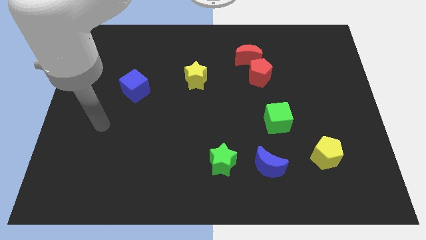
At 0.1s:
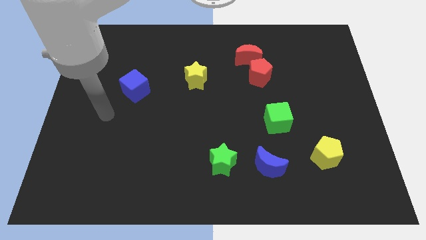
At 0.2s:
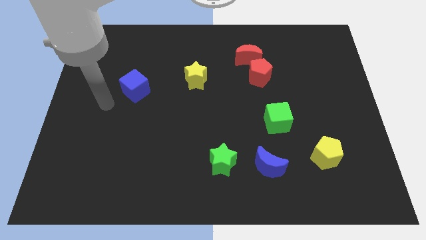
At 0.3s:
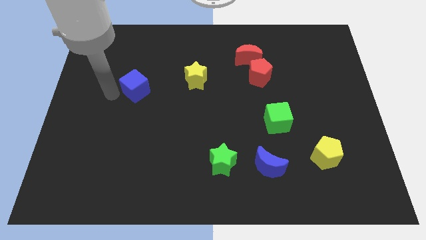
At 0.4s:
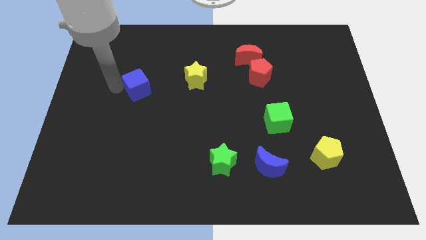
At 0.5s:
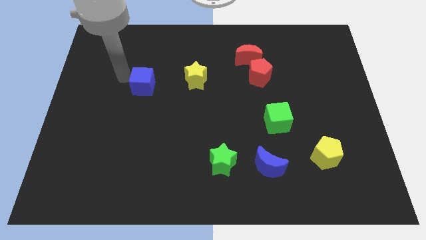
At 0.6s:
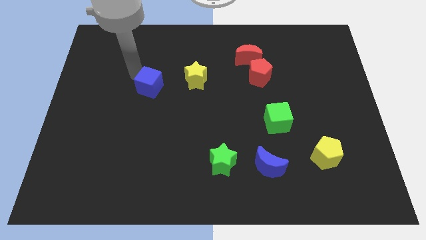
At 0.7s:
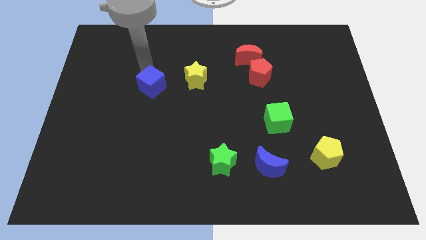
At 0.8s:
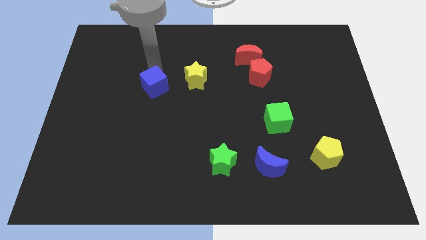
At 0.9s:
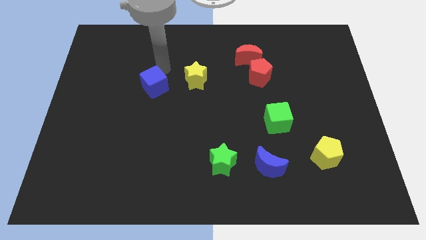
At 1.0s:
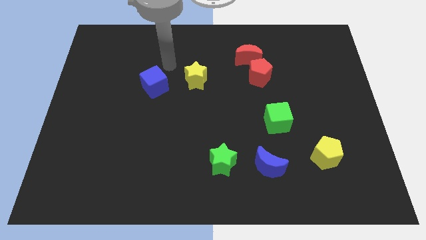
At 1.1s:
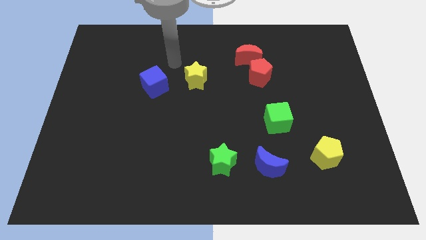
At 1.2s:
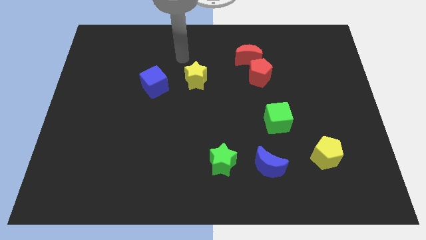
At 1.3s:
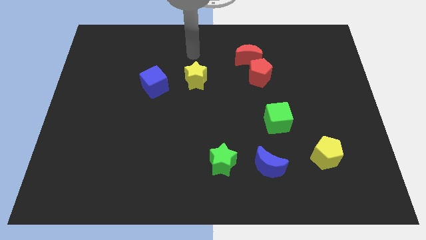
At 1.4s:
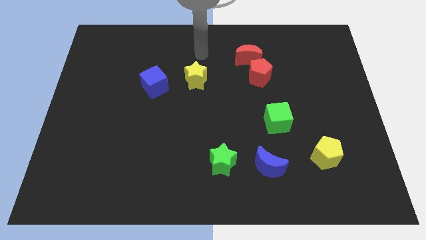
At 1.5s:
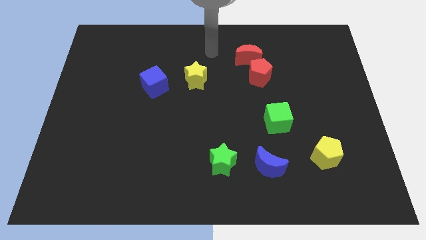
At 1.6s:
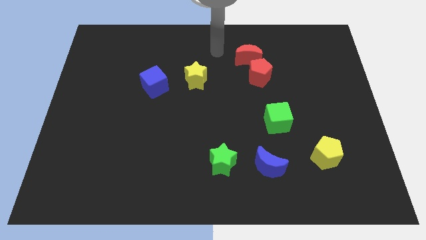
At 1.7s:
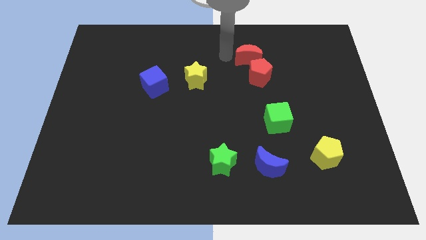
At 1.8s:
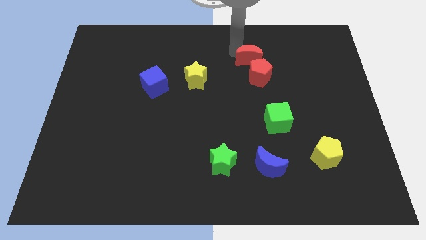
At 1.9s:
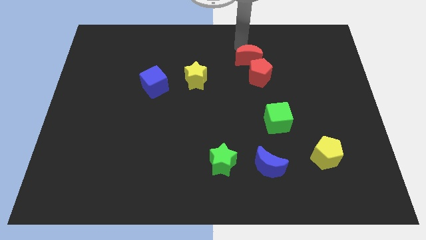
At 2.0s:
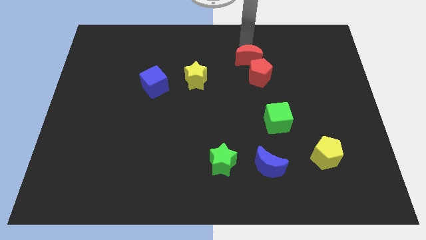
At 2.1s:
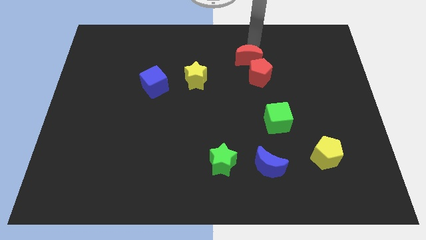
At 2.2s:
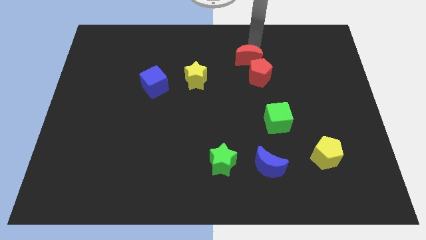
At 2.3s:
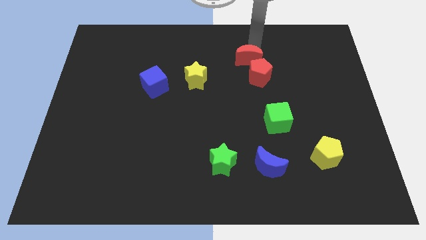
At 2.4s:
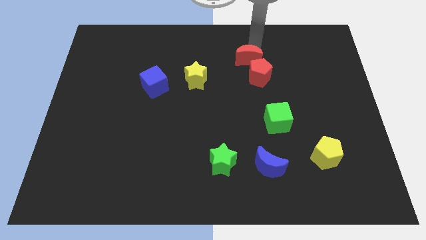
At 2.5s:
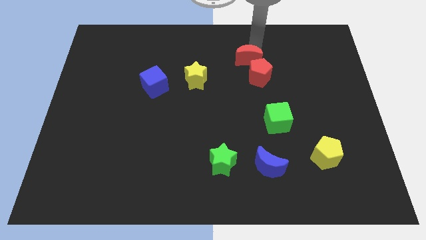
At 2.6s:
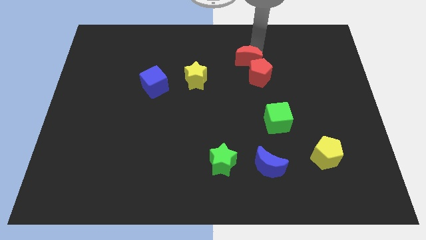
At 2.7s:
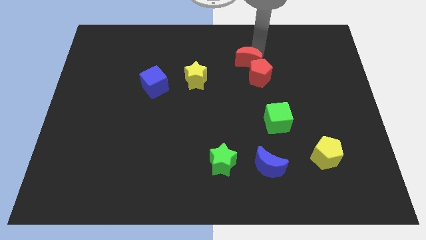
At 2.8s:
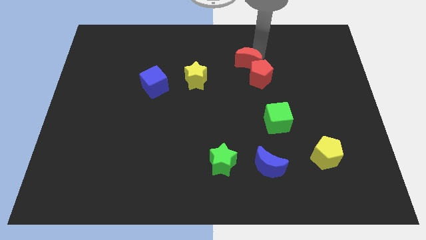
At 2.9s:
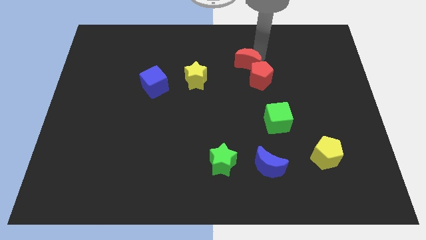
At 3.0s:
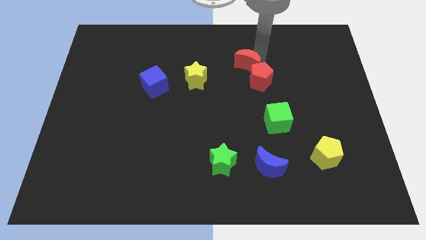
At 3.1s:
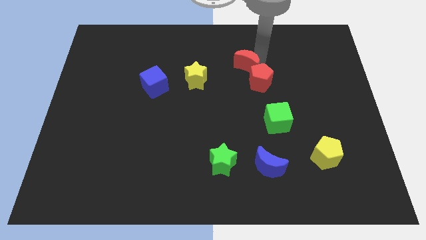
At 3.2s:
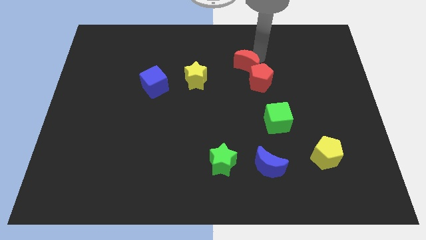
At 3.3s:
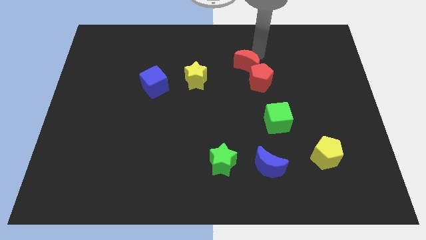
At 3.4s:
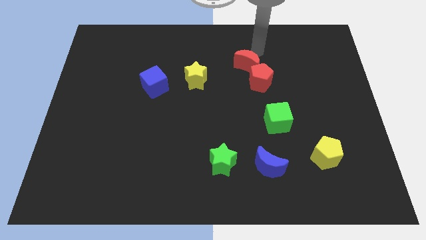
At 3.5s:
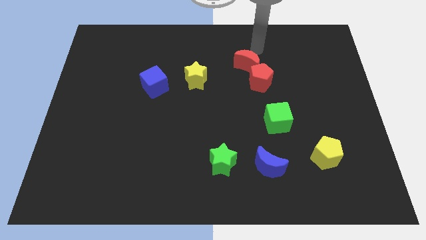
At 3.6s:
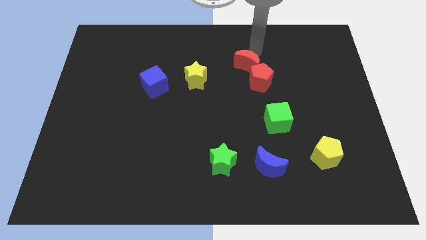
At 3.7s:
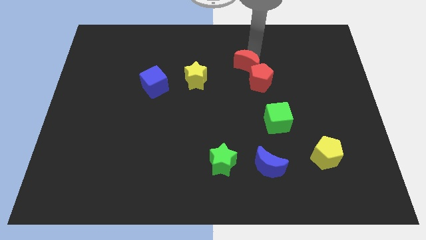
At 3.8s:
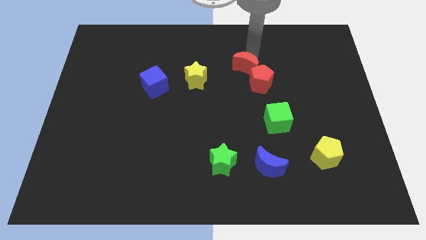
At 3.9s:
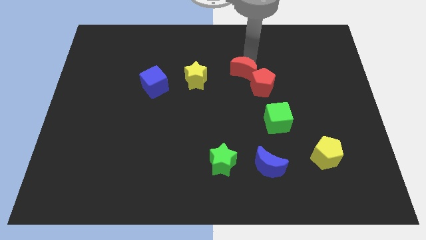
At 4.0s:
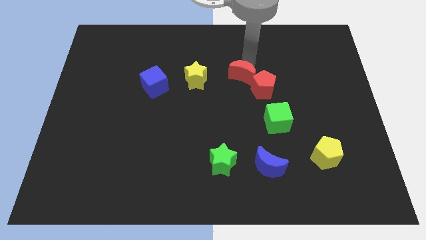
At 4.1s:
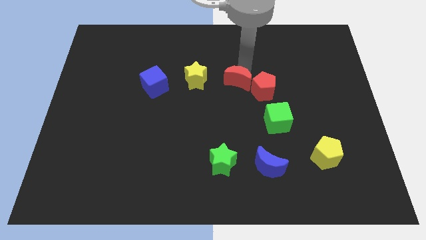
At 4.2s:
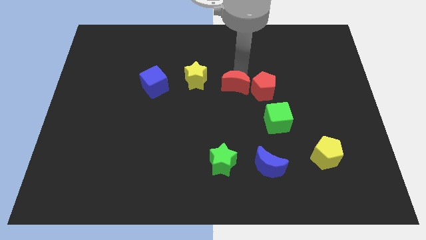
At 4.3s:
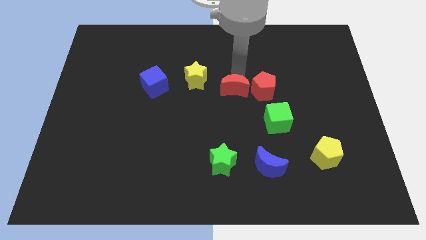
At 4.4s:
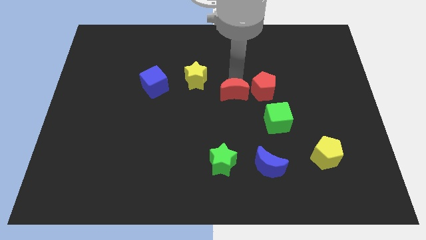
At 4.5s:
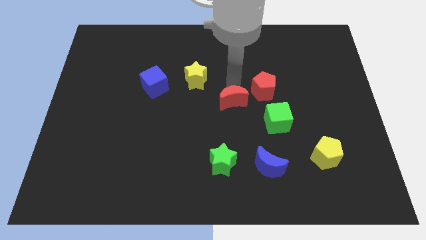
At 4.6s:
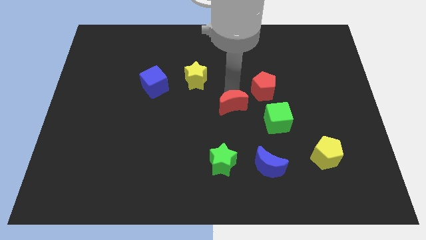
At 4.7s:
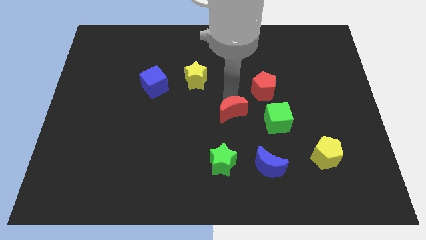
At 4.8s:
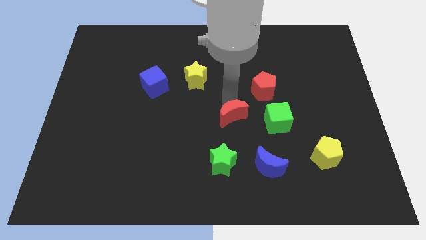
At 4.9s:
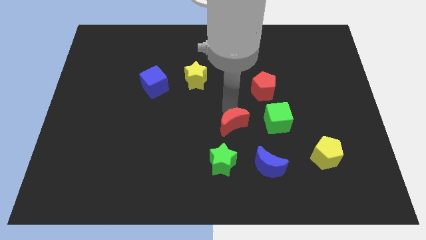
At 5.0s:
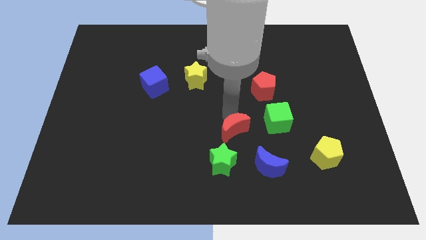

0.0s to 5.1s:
put the red moon to the top right of the green star

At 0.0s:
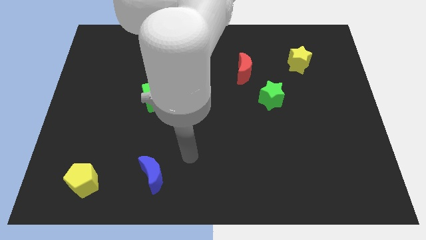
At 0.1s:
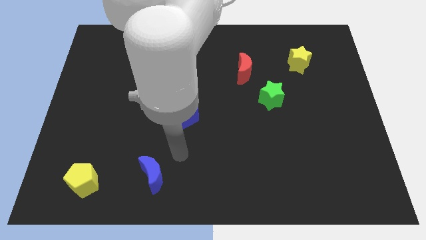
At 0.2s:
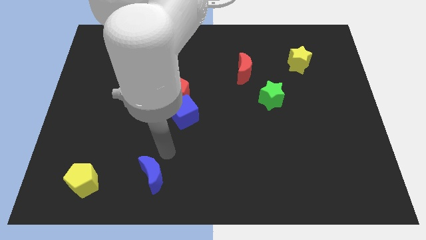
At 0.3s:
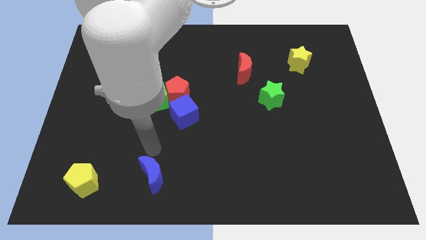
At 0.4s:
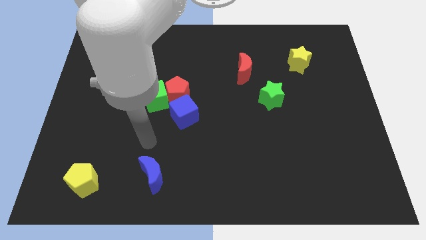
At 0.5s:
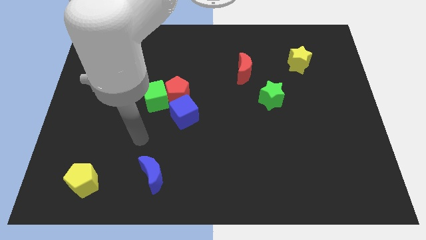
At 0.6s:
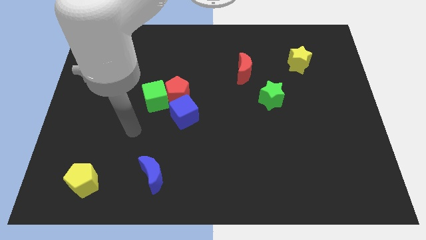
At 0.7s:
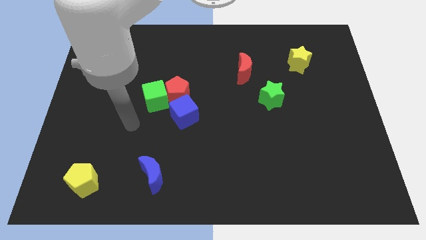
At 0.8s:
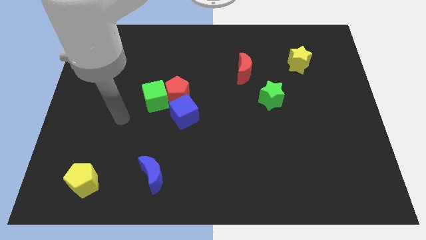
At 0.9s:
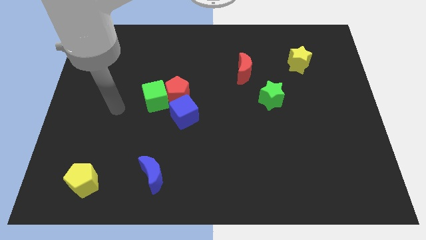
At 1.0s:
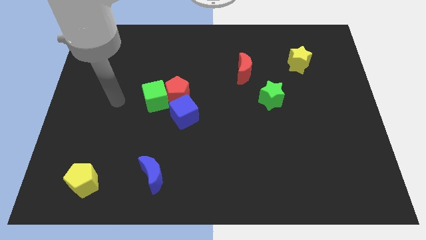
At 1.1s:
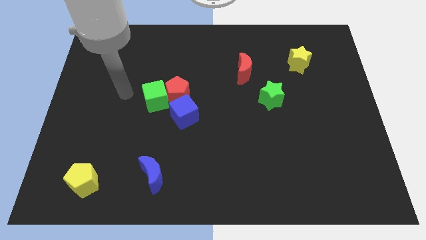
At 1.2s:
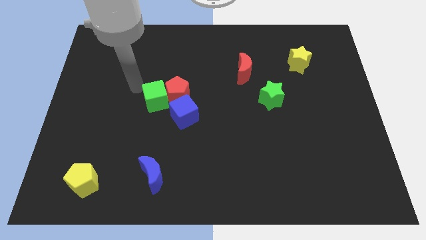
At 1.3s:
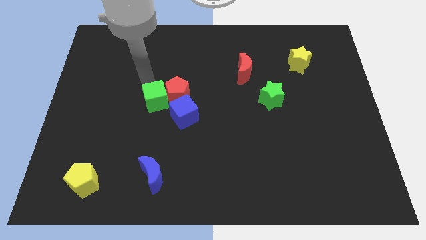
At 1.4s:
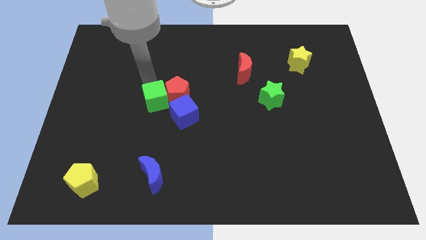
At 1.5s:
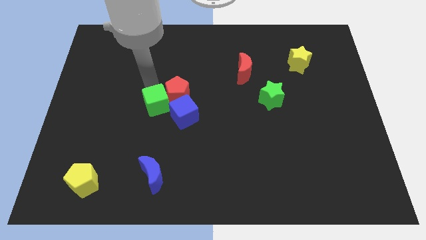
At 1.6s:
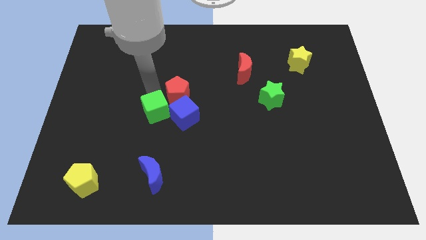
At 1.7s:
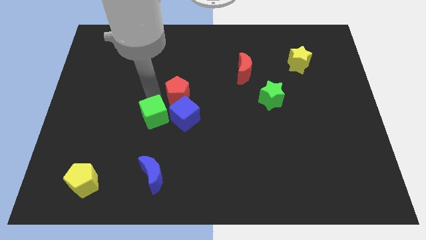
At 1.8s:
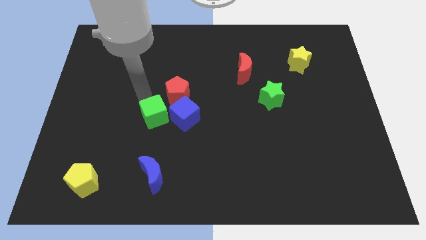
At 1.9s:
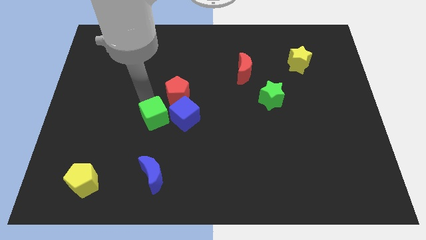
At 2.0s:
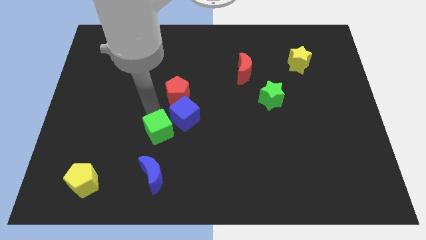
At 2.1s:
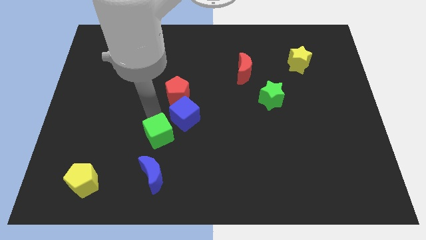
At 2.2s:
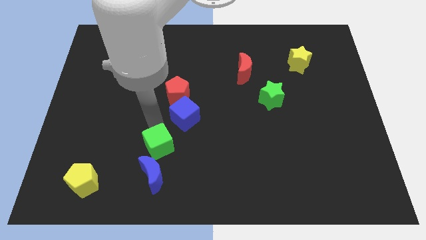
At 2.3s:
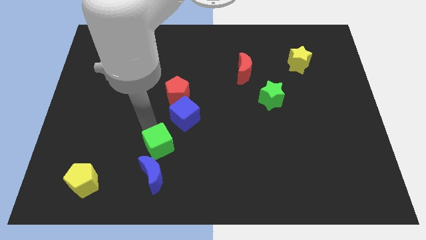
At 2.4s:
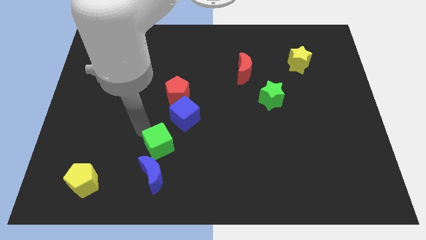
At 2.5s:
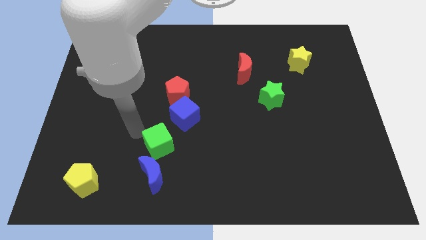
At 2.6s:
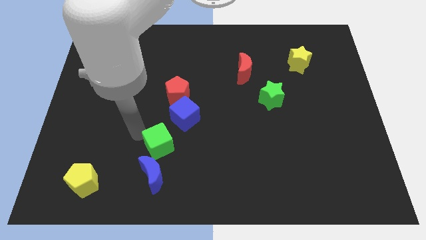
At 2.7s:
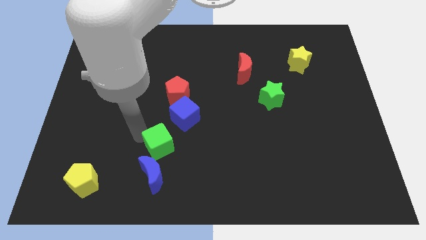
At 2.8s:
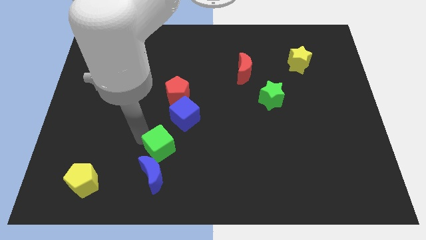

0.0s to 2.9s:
push the green cube to the bottom side of the blue cube
